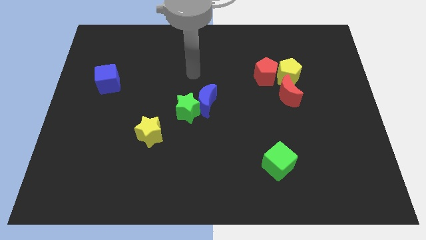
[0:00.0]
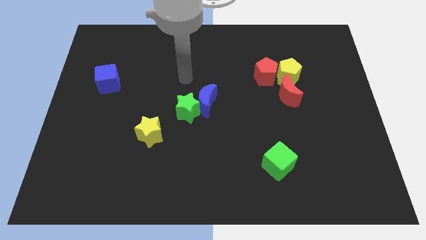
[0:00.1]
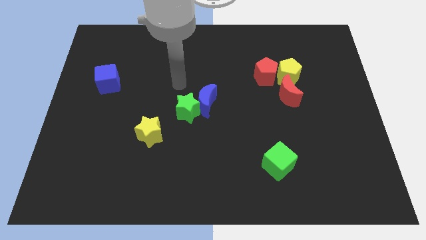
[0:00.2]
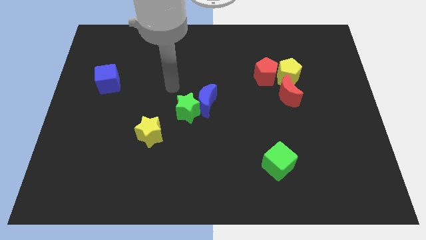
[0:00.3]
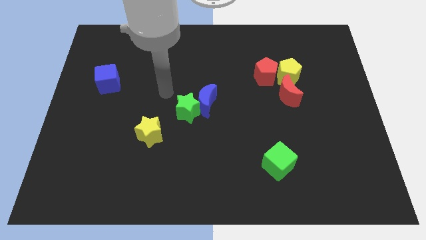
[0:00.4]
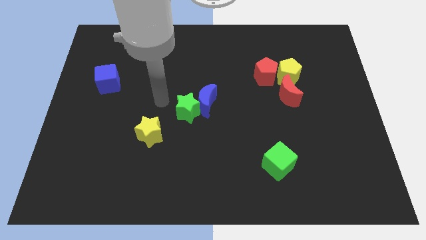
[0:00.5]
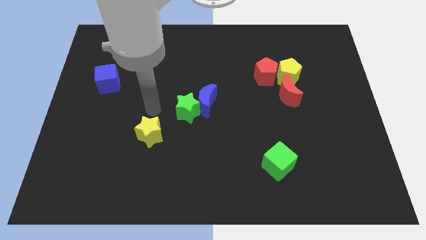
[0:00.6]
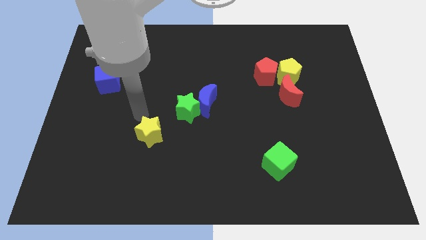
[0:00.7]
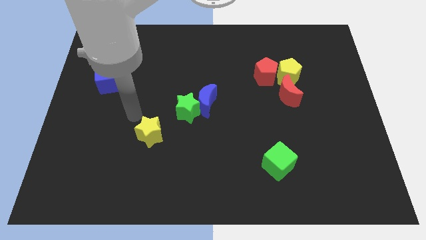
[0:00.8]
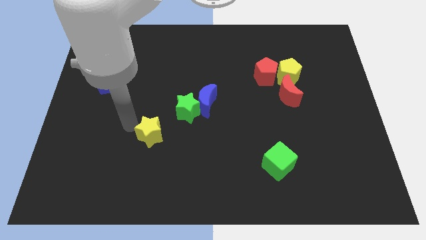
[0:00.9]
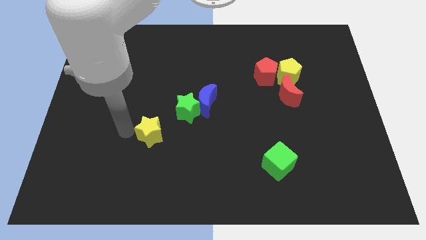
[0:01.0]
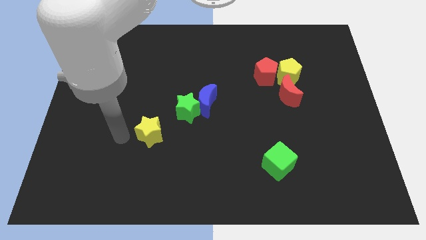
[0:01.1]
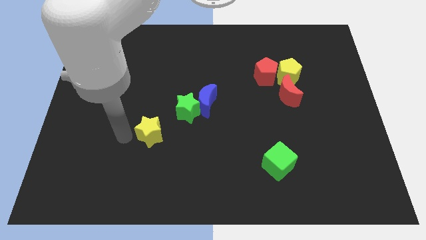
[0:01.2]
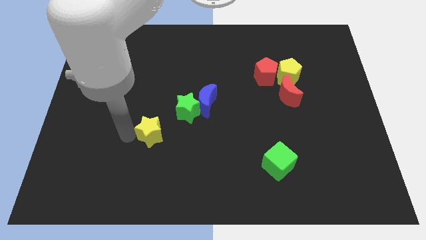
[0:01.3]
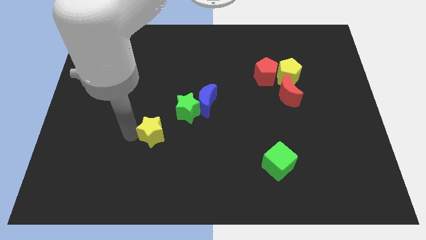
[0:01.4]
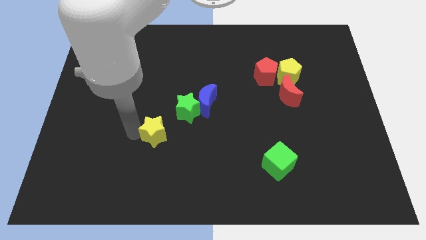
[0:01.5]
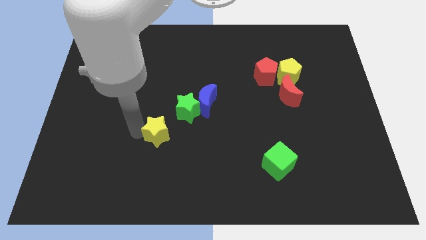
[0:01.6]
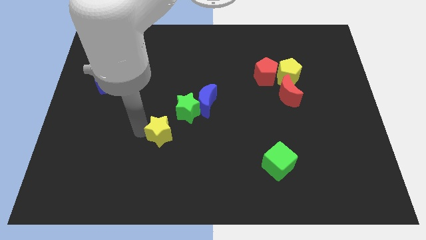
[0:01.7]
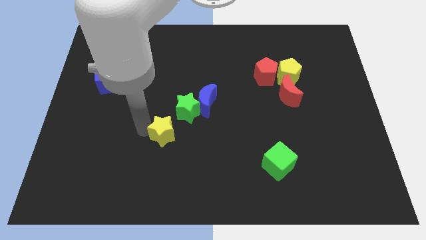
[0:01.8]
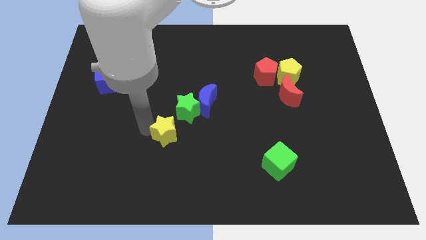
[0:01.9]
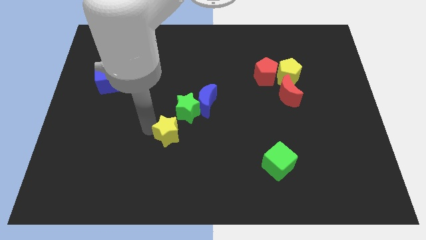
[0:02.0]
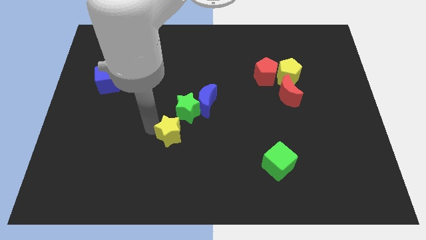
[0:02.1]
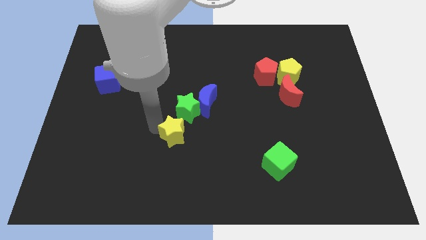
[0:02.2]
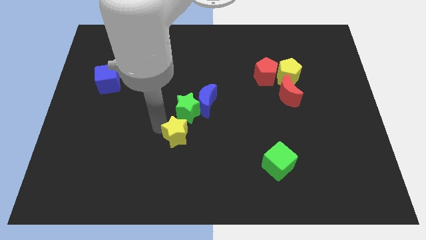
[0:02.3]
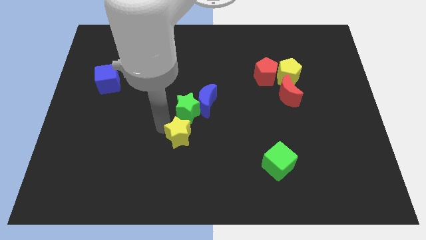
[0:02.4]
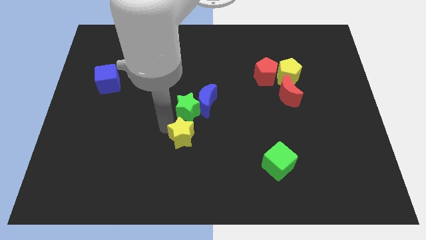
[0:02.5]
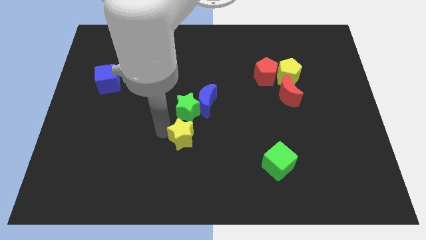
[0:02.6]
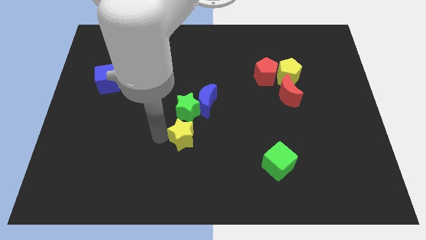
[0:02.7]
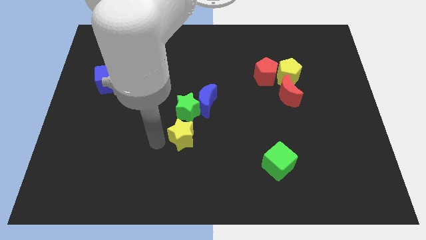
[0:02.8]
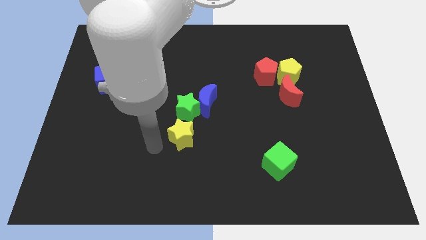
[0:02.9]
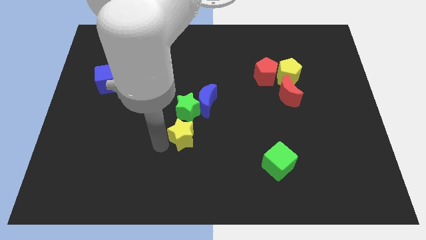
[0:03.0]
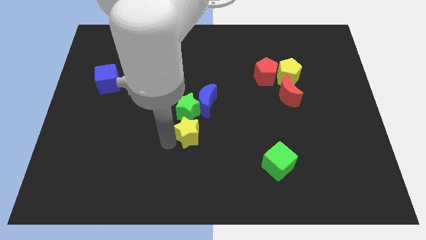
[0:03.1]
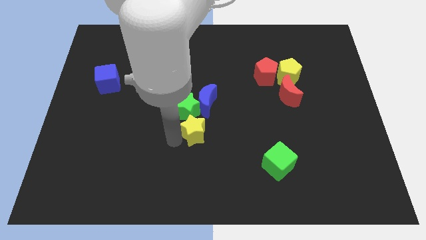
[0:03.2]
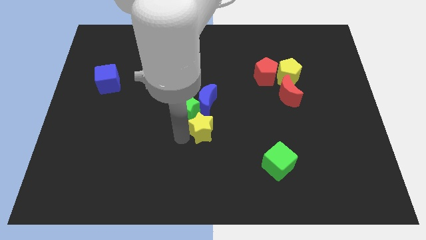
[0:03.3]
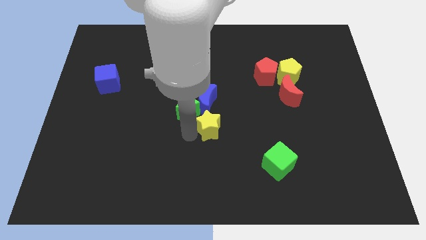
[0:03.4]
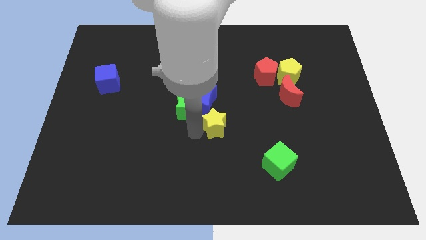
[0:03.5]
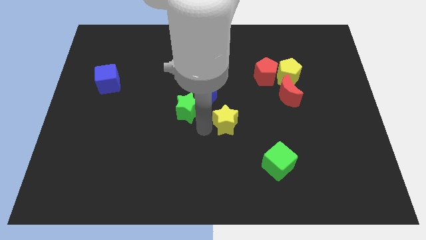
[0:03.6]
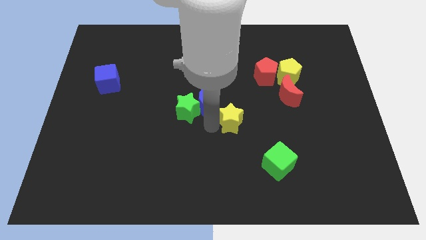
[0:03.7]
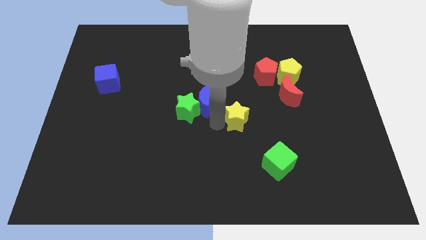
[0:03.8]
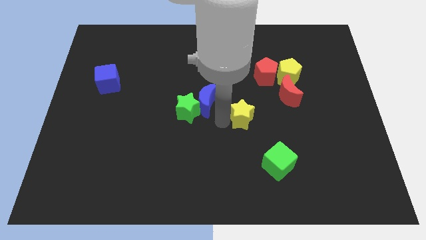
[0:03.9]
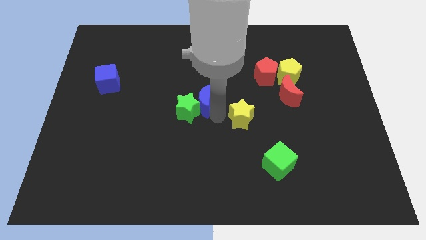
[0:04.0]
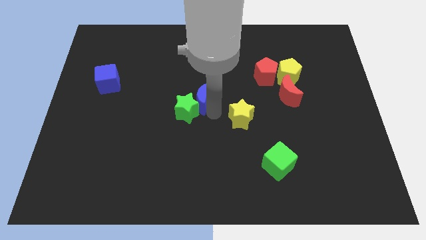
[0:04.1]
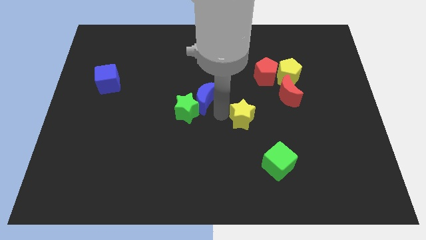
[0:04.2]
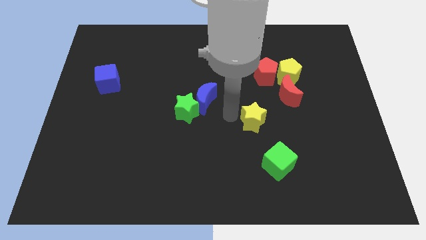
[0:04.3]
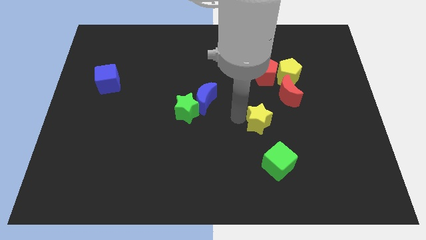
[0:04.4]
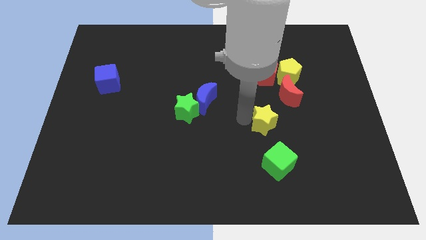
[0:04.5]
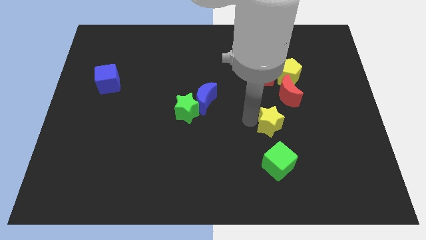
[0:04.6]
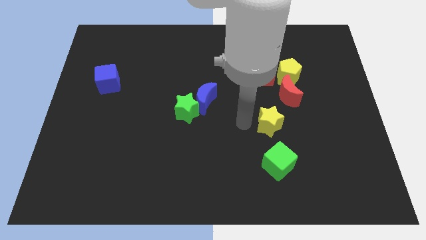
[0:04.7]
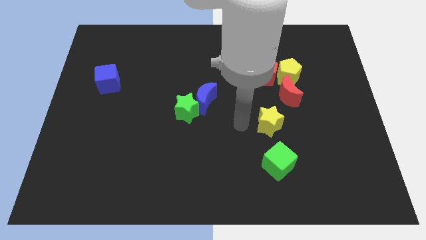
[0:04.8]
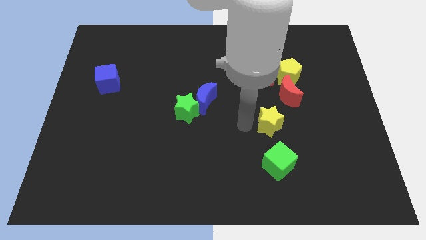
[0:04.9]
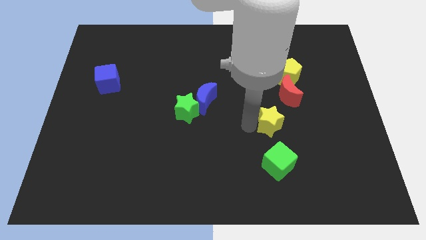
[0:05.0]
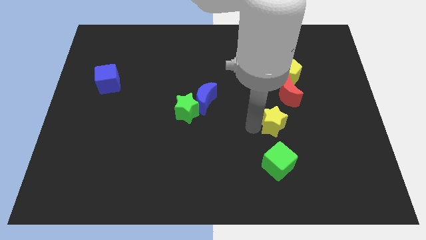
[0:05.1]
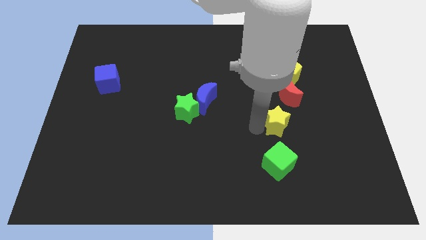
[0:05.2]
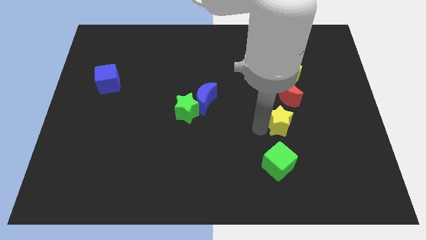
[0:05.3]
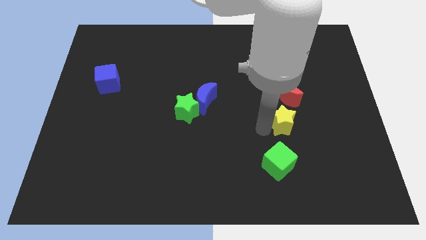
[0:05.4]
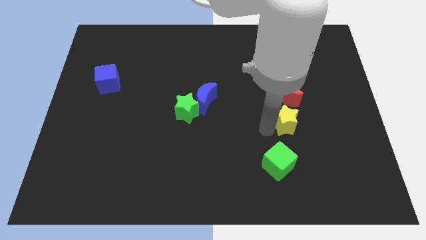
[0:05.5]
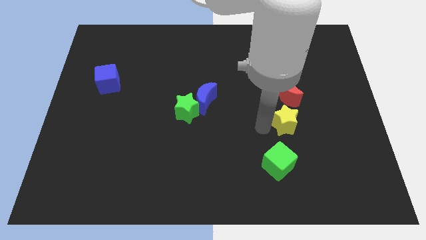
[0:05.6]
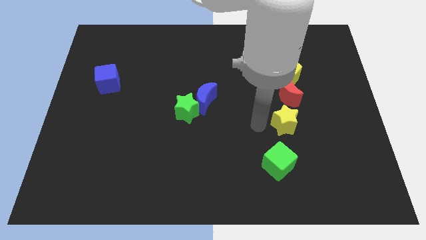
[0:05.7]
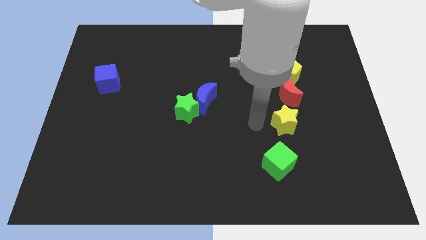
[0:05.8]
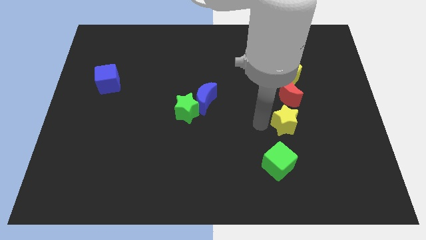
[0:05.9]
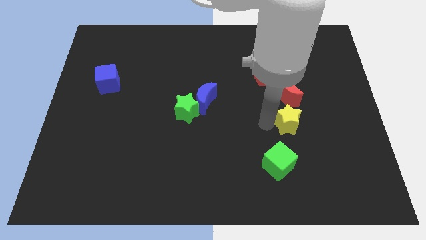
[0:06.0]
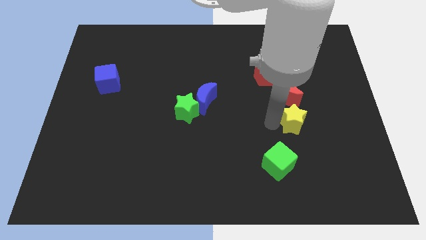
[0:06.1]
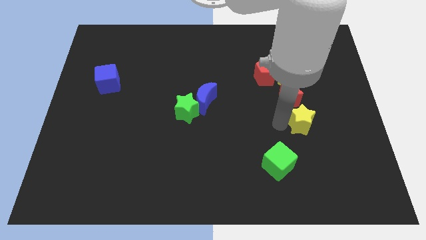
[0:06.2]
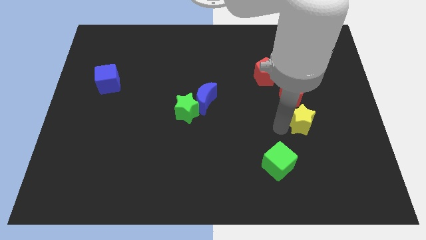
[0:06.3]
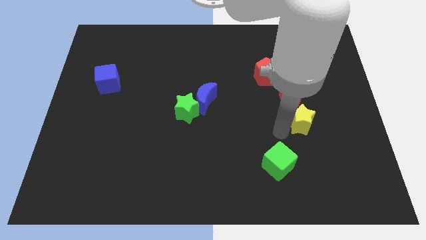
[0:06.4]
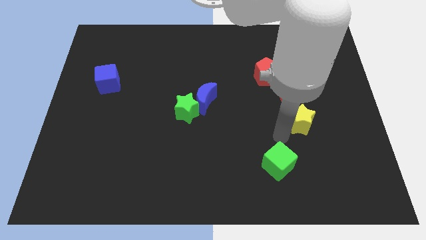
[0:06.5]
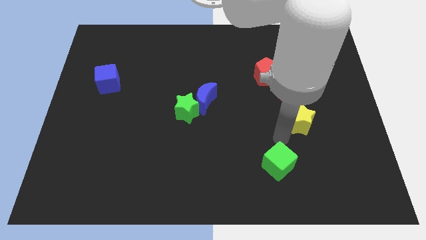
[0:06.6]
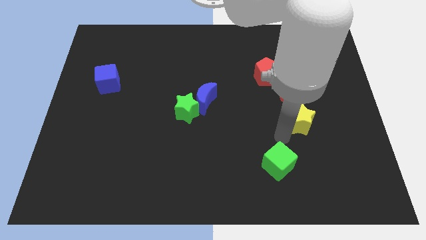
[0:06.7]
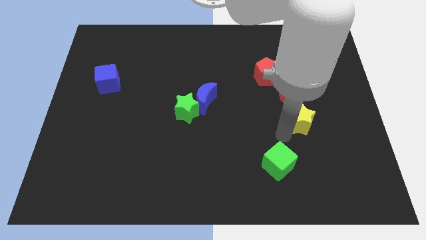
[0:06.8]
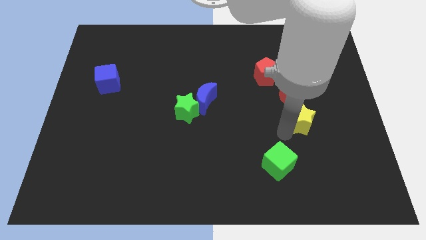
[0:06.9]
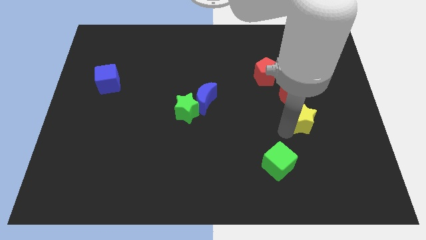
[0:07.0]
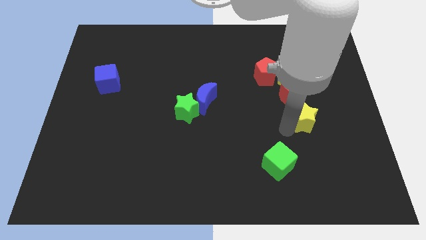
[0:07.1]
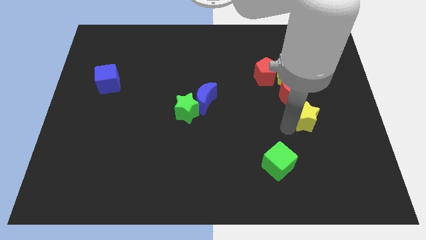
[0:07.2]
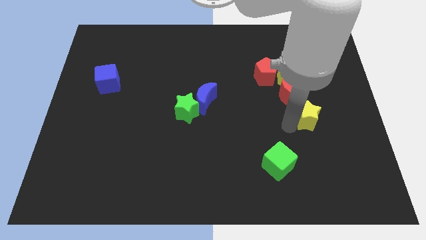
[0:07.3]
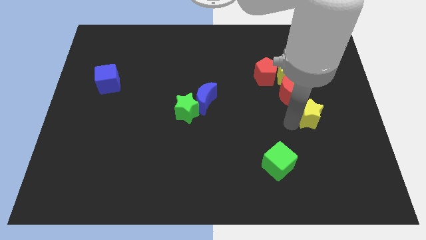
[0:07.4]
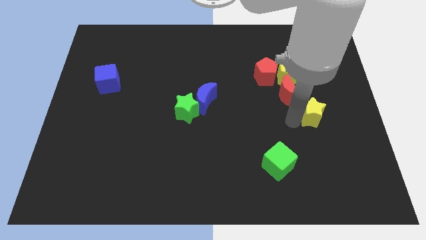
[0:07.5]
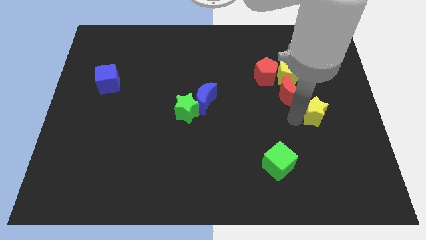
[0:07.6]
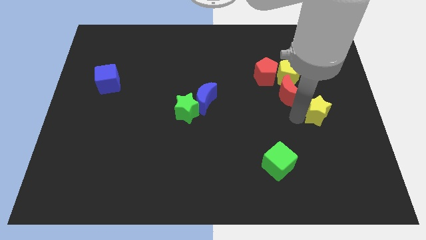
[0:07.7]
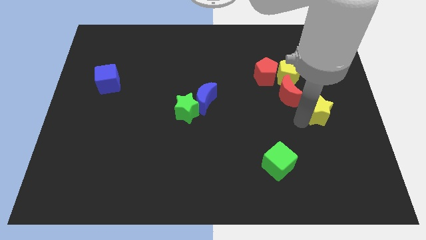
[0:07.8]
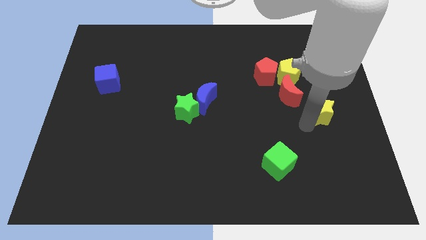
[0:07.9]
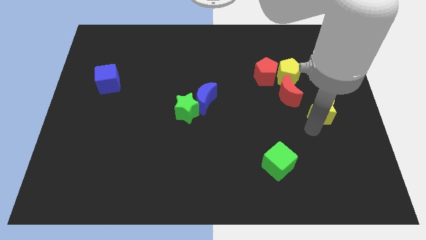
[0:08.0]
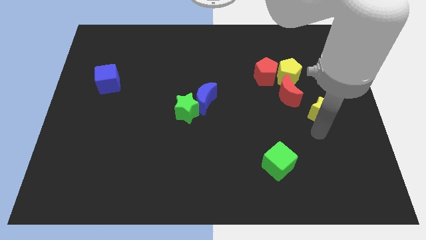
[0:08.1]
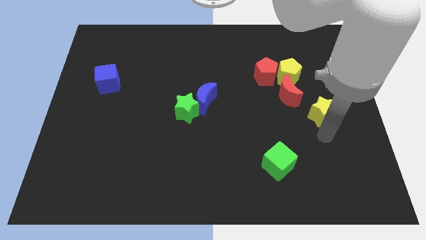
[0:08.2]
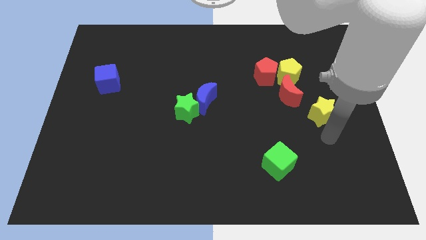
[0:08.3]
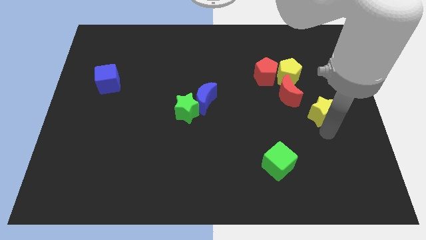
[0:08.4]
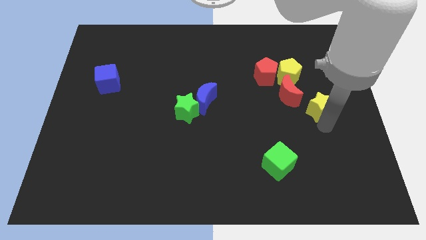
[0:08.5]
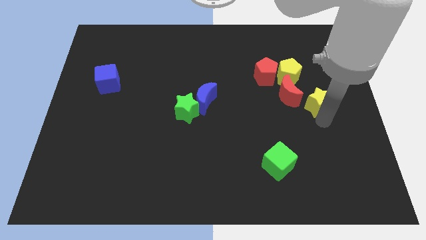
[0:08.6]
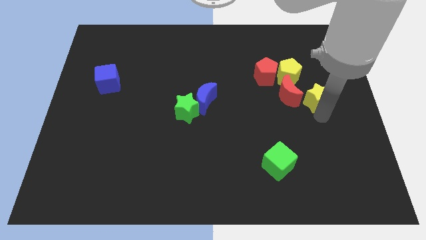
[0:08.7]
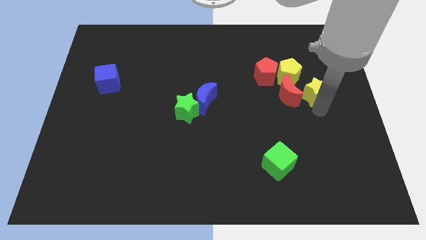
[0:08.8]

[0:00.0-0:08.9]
move the yellow star to the top right side of the red moon
